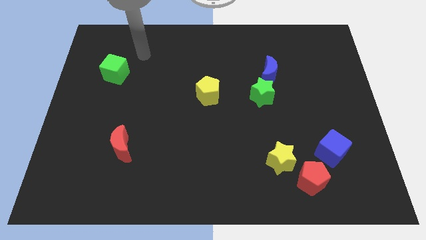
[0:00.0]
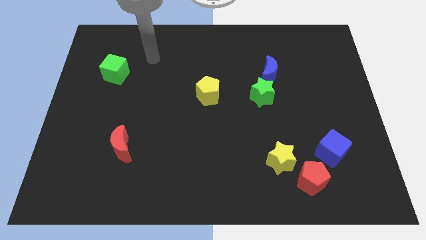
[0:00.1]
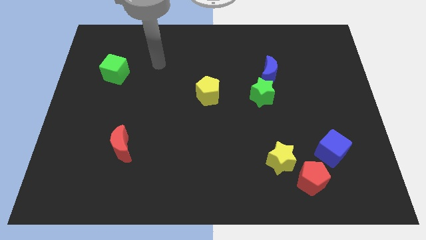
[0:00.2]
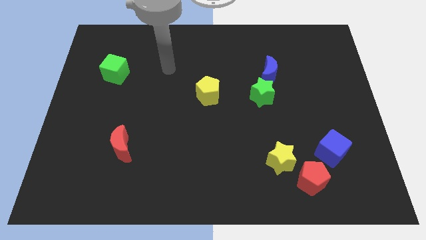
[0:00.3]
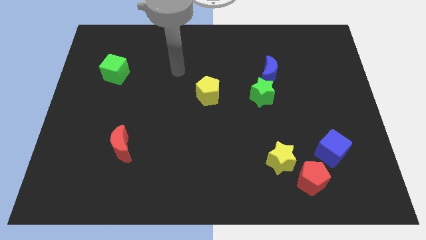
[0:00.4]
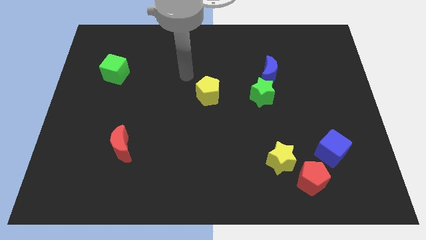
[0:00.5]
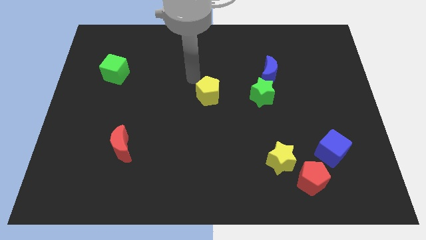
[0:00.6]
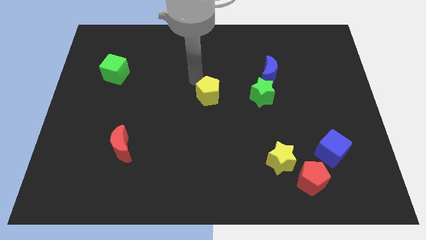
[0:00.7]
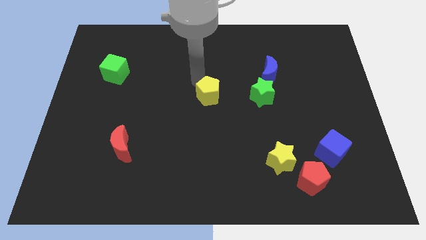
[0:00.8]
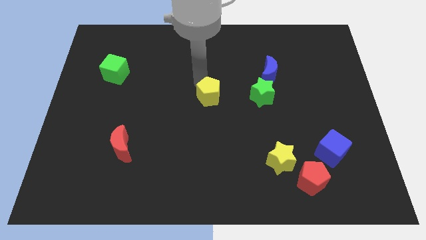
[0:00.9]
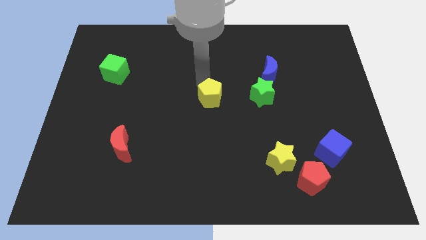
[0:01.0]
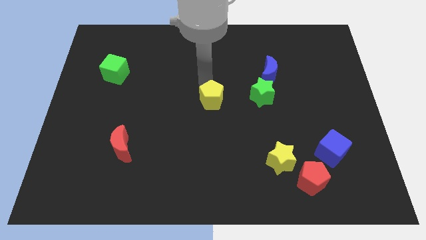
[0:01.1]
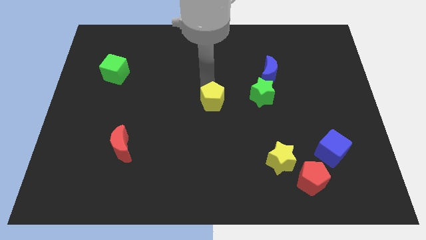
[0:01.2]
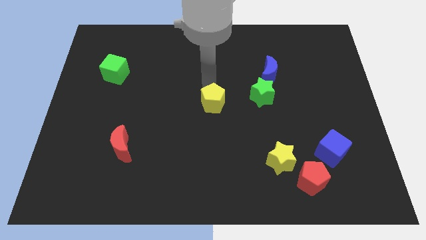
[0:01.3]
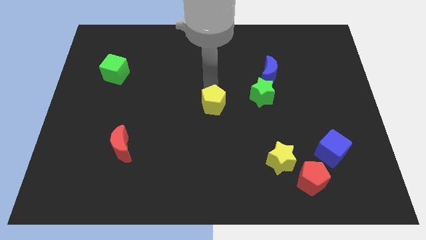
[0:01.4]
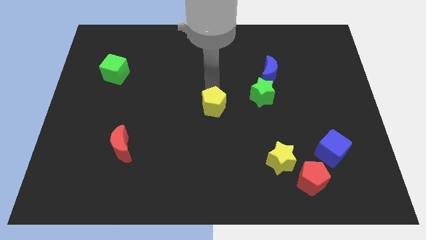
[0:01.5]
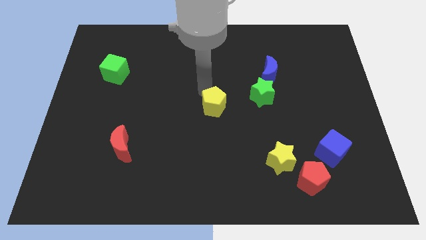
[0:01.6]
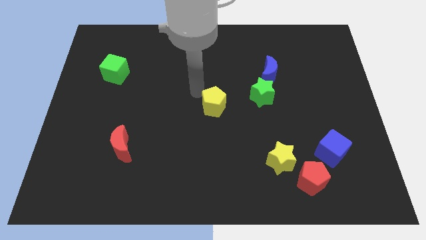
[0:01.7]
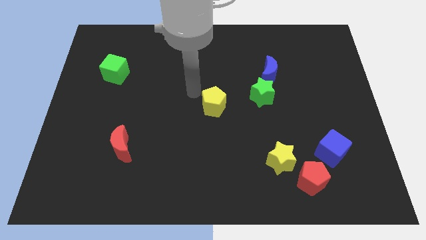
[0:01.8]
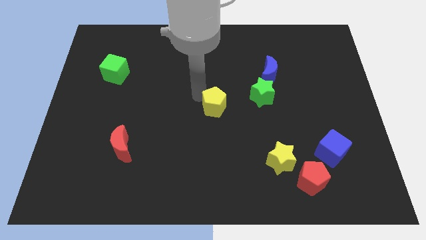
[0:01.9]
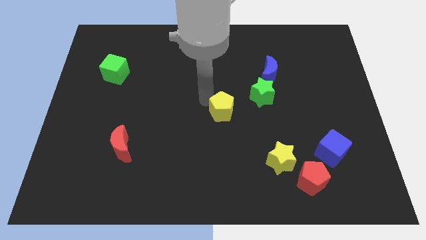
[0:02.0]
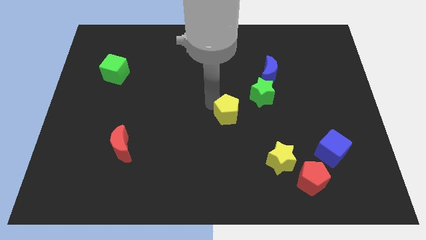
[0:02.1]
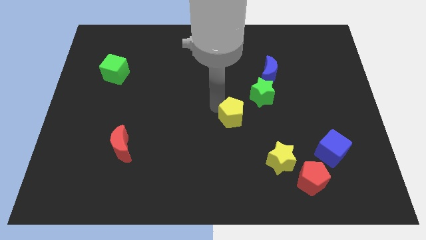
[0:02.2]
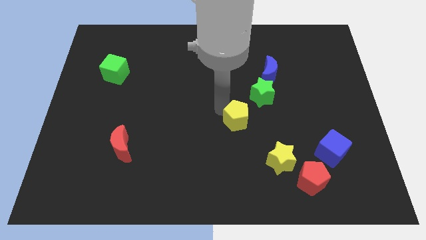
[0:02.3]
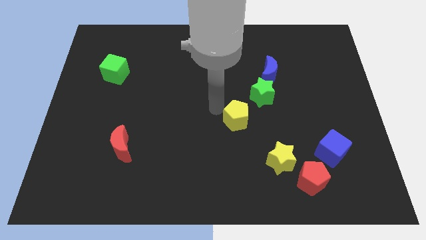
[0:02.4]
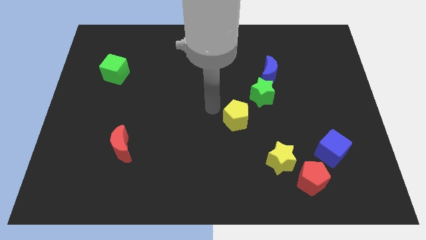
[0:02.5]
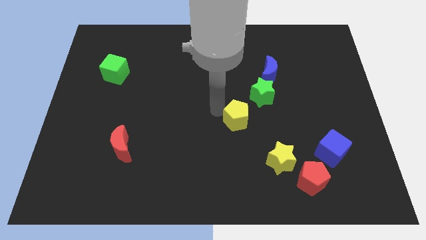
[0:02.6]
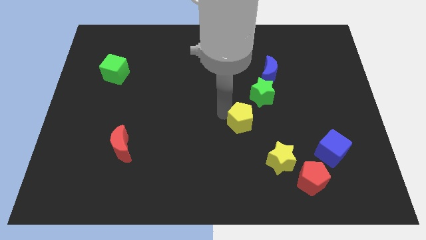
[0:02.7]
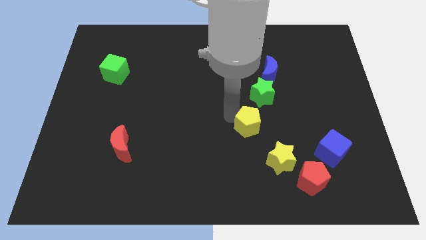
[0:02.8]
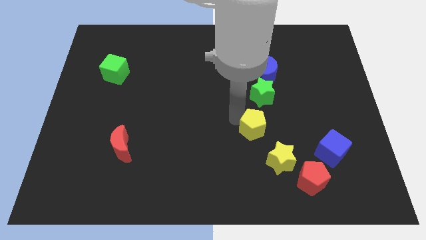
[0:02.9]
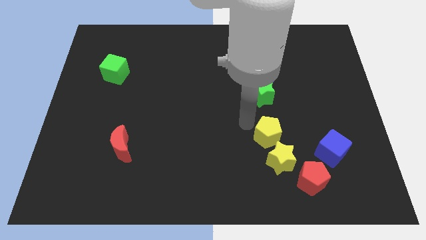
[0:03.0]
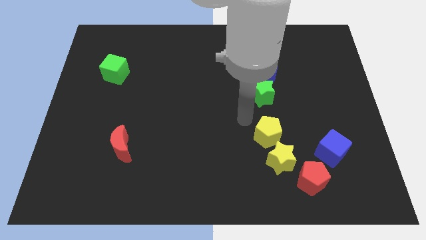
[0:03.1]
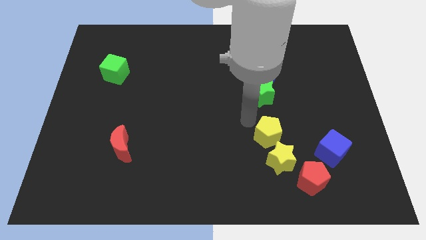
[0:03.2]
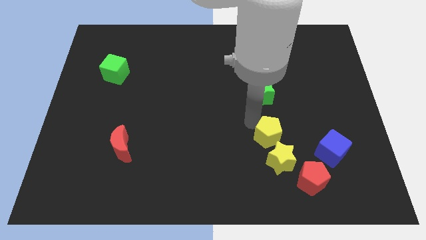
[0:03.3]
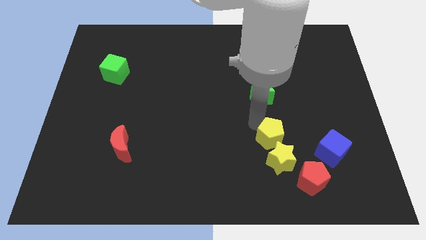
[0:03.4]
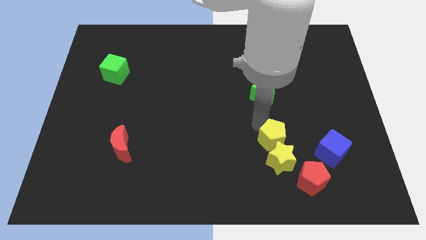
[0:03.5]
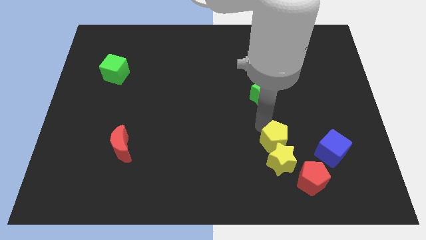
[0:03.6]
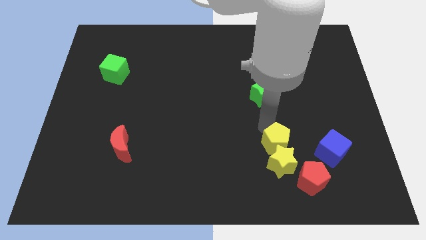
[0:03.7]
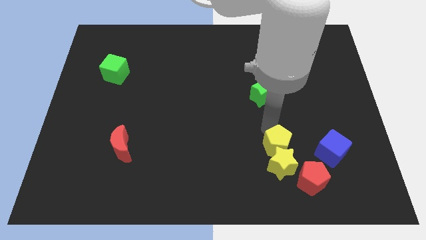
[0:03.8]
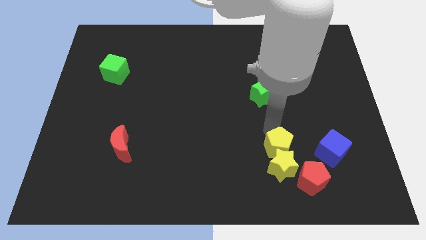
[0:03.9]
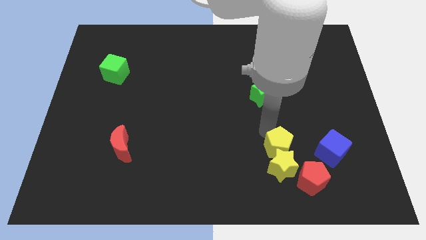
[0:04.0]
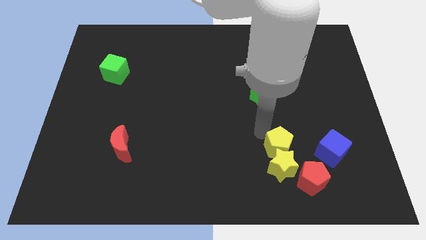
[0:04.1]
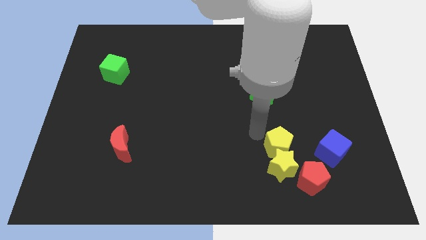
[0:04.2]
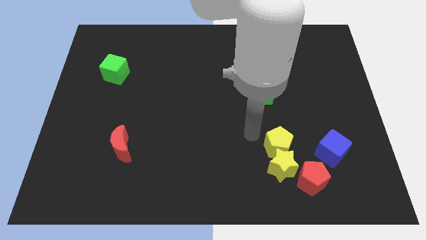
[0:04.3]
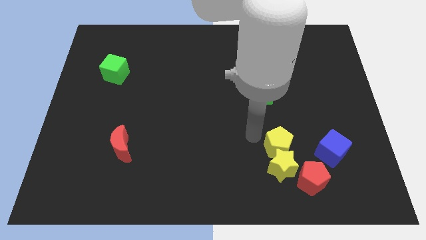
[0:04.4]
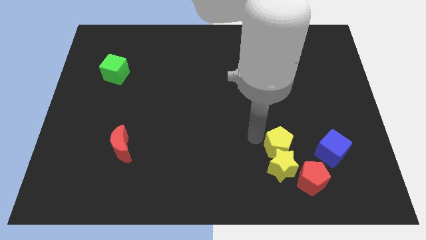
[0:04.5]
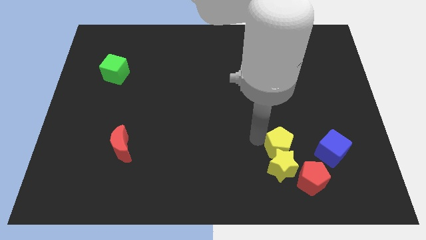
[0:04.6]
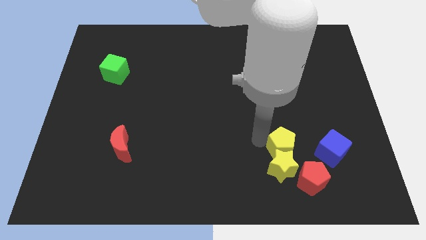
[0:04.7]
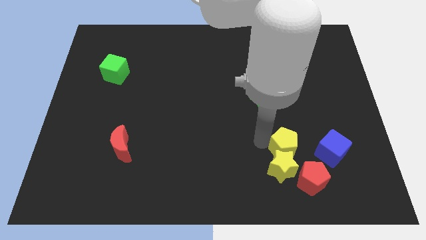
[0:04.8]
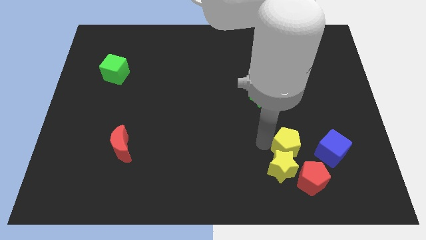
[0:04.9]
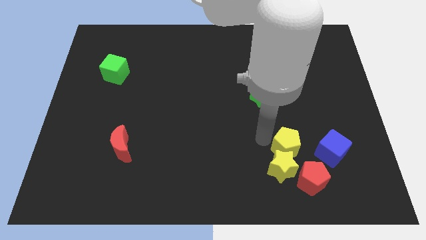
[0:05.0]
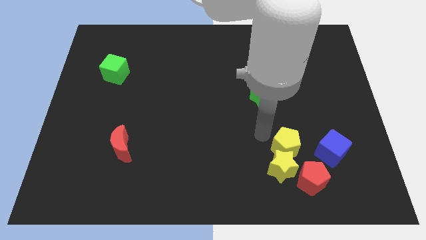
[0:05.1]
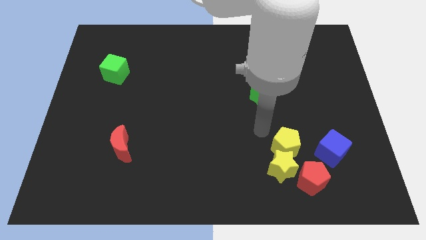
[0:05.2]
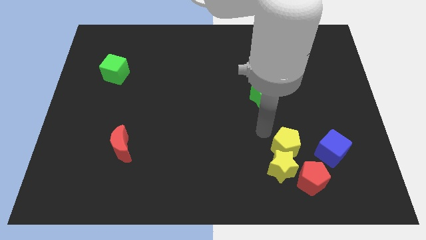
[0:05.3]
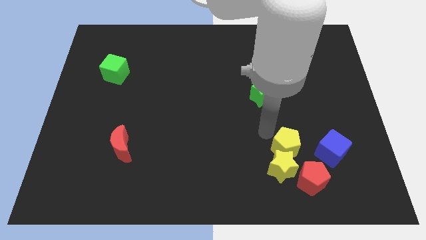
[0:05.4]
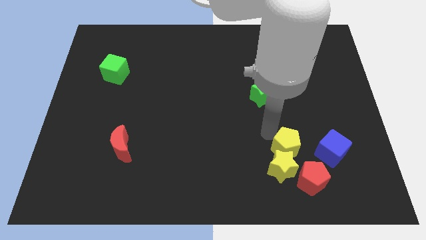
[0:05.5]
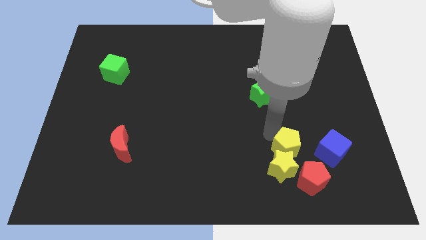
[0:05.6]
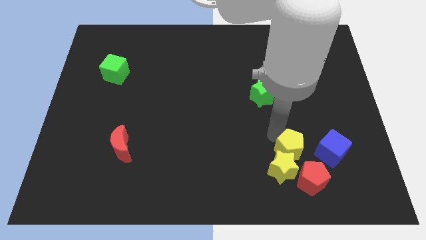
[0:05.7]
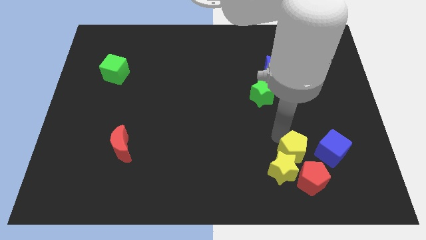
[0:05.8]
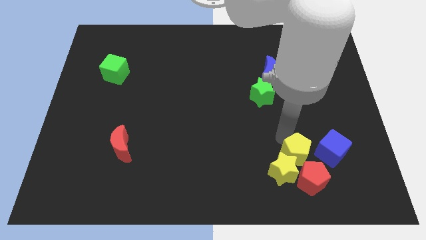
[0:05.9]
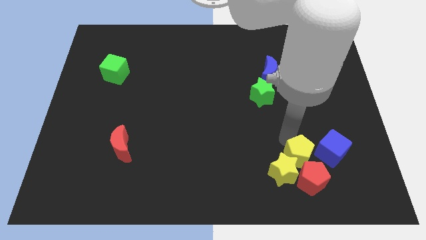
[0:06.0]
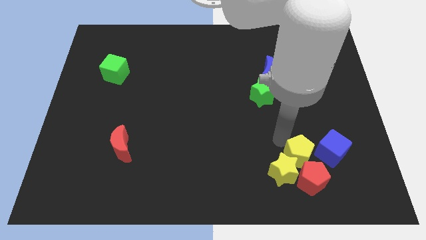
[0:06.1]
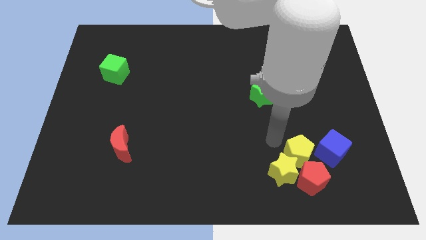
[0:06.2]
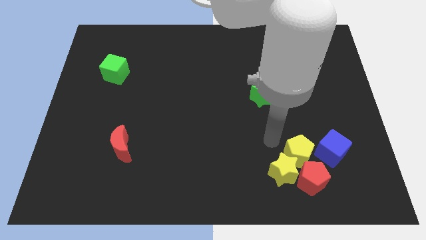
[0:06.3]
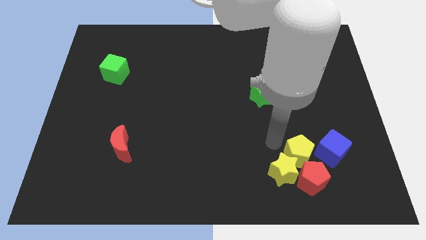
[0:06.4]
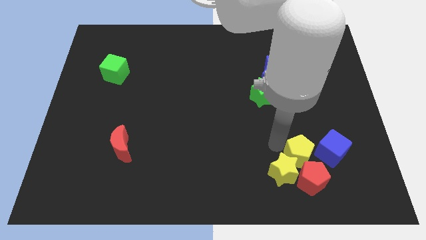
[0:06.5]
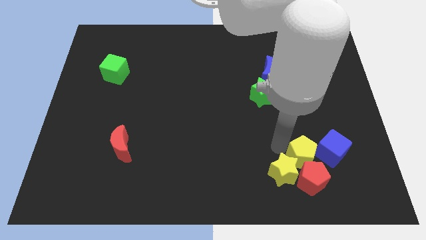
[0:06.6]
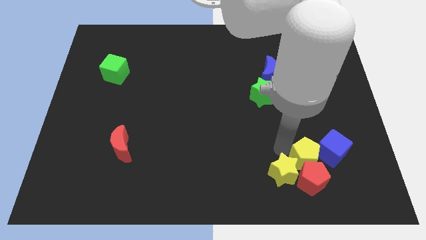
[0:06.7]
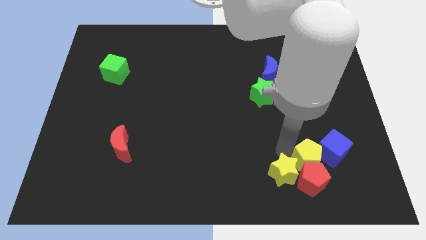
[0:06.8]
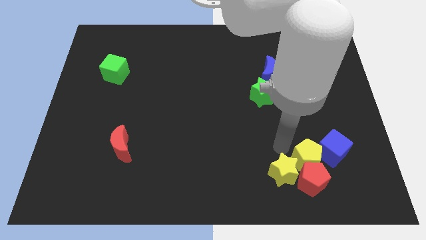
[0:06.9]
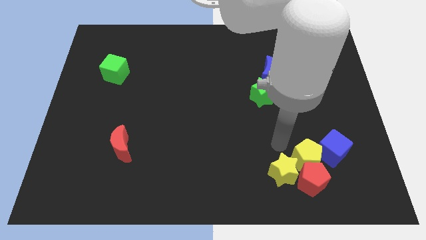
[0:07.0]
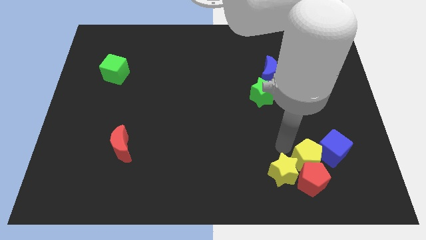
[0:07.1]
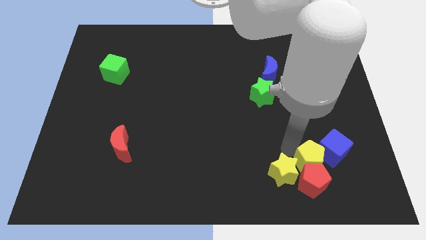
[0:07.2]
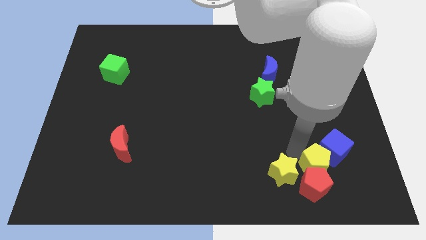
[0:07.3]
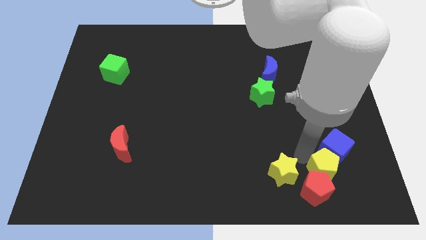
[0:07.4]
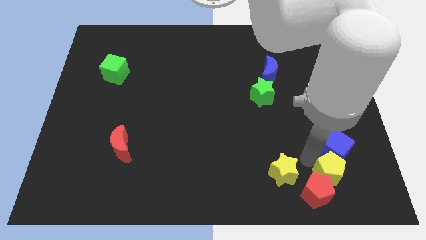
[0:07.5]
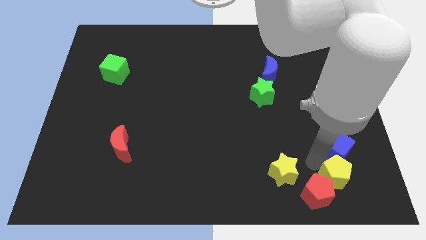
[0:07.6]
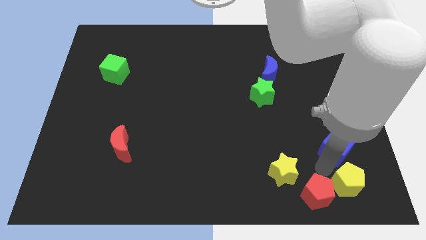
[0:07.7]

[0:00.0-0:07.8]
move the yellow pentagon to the bottom right corner
